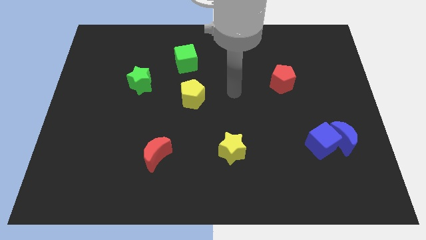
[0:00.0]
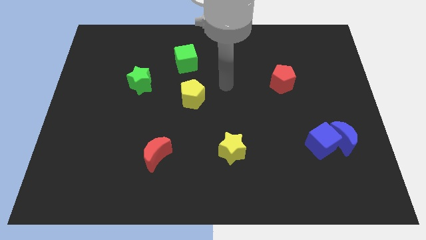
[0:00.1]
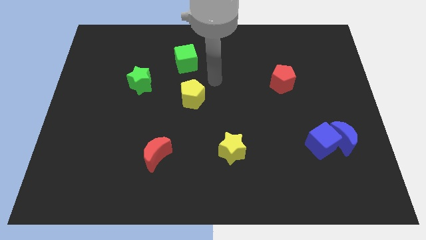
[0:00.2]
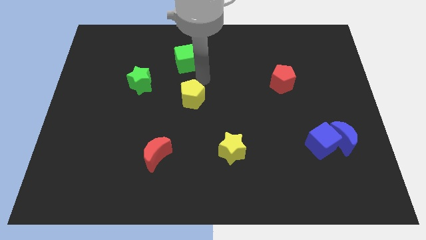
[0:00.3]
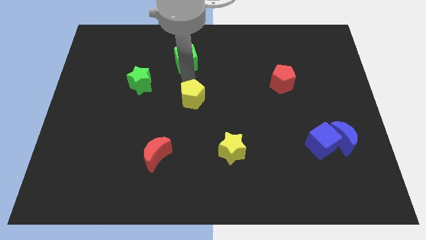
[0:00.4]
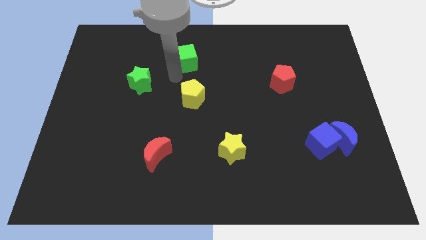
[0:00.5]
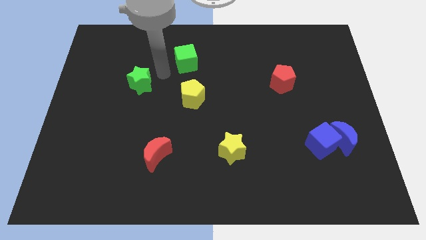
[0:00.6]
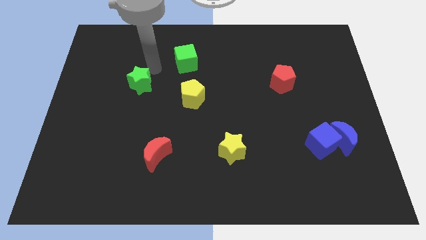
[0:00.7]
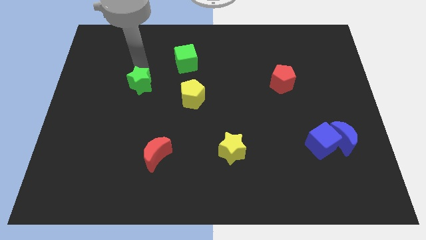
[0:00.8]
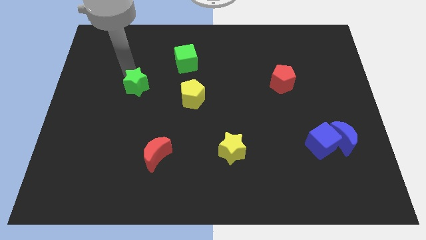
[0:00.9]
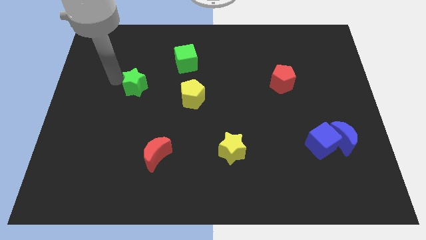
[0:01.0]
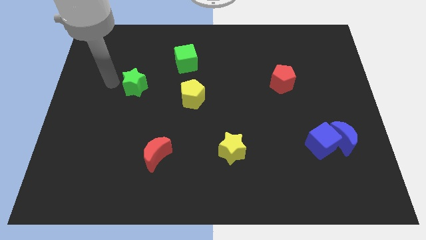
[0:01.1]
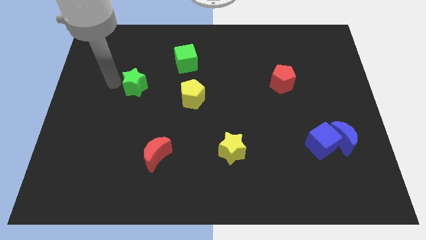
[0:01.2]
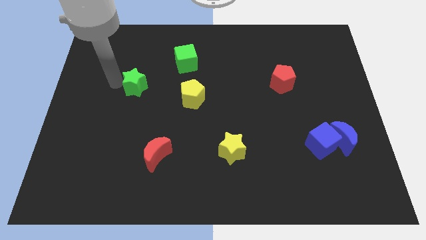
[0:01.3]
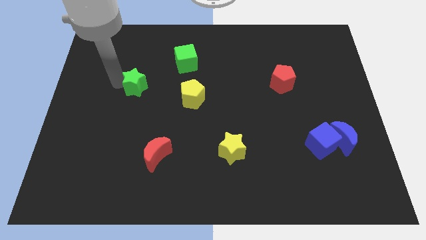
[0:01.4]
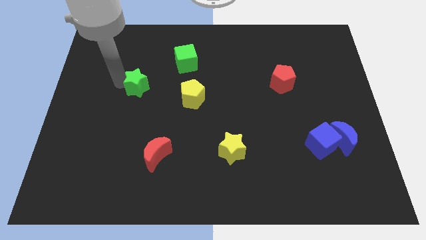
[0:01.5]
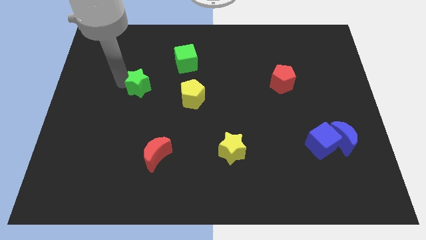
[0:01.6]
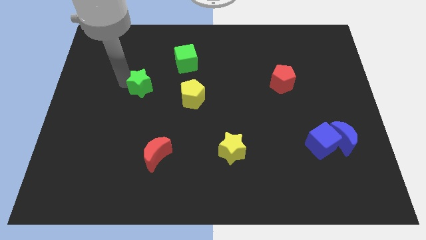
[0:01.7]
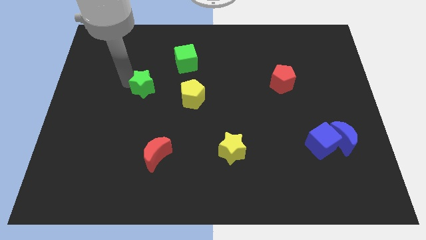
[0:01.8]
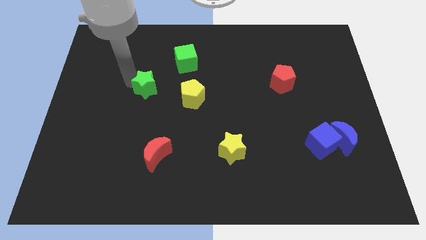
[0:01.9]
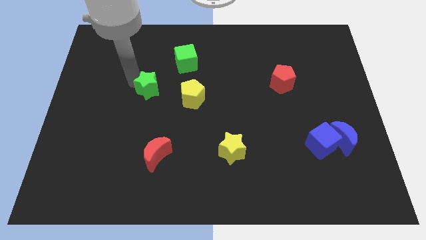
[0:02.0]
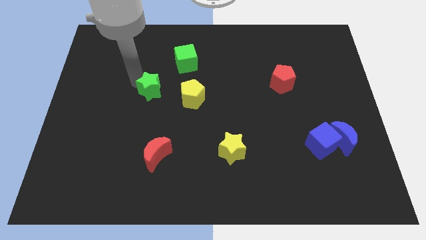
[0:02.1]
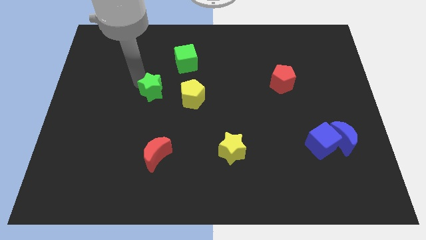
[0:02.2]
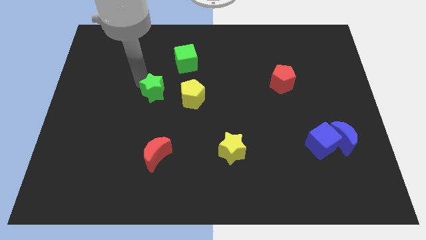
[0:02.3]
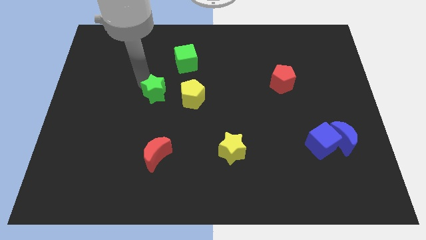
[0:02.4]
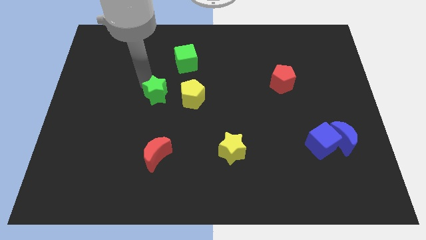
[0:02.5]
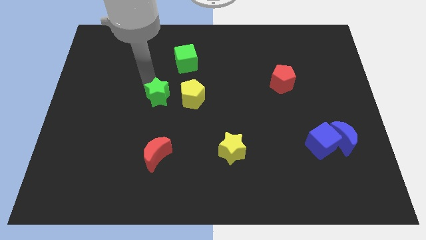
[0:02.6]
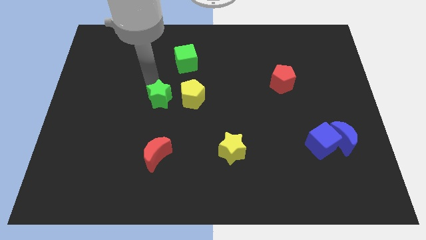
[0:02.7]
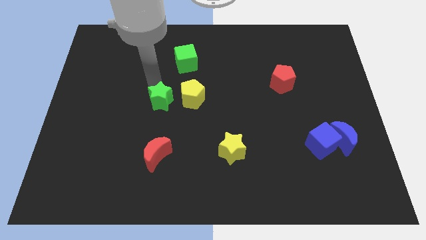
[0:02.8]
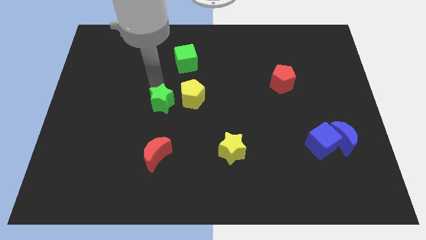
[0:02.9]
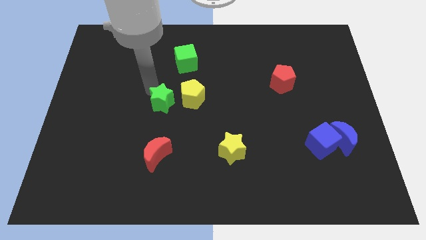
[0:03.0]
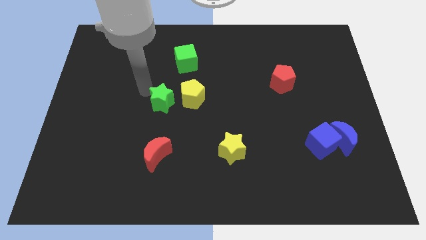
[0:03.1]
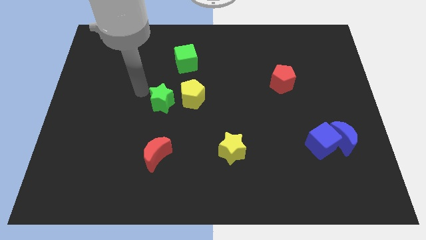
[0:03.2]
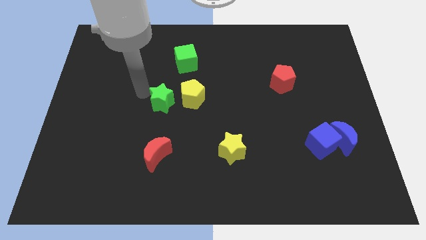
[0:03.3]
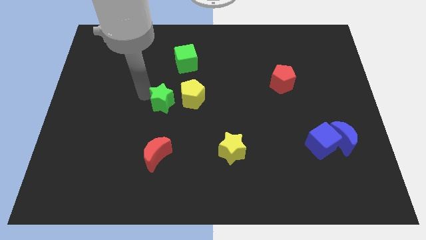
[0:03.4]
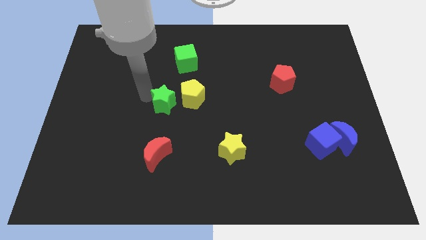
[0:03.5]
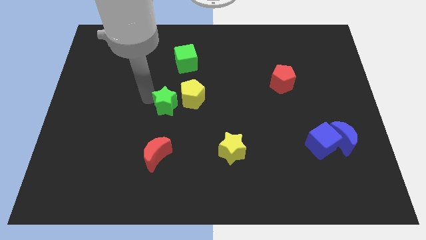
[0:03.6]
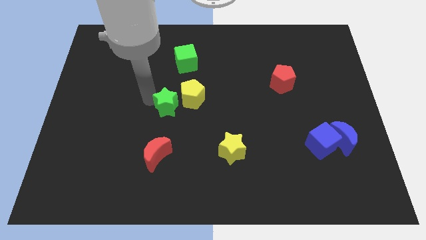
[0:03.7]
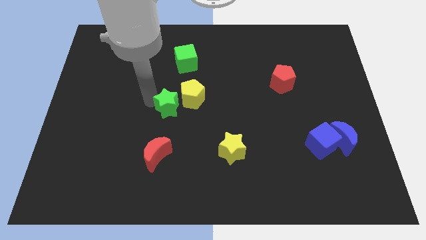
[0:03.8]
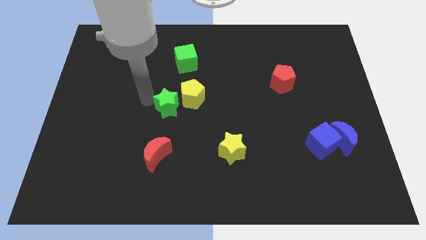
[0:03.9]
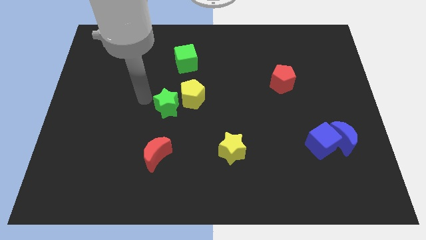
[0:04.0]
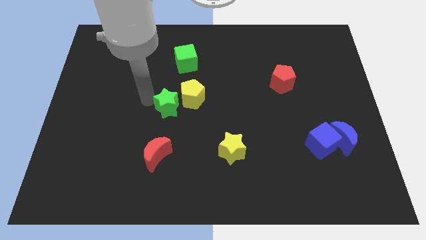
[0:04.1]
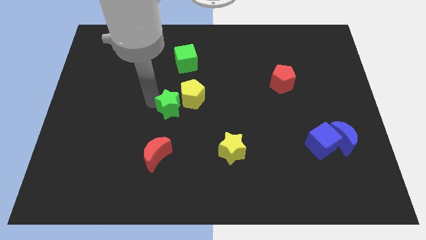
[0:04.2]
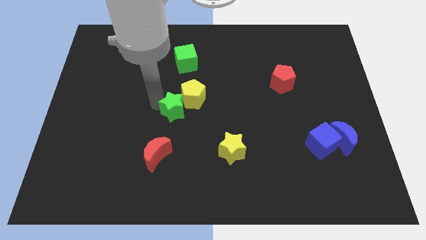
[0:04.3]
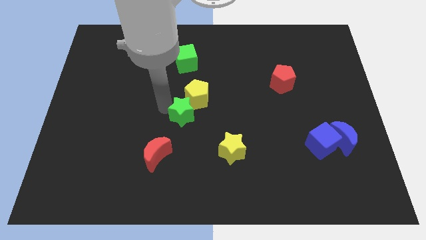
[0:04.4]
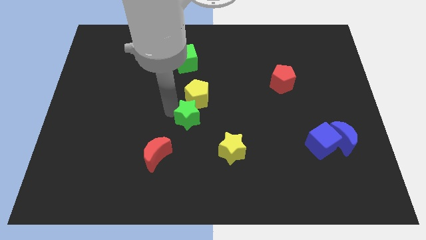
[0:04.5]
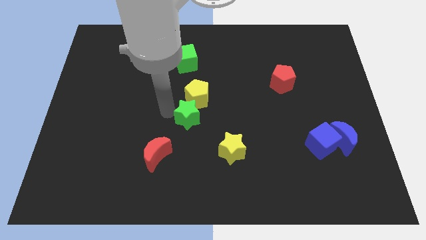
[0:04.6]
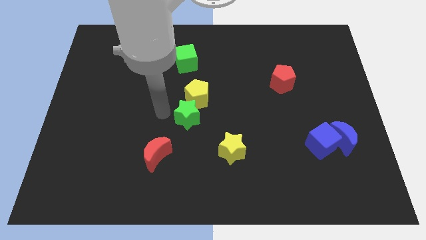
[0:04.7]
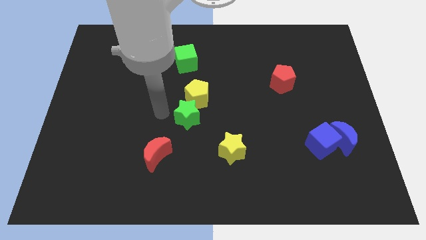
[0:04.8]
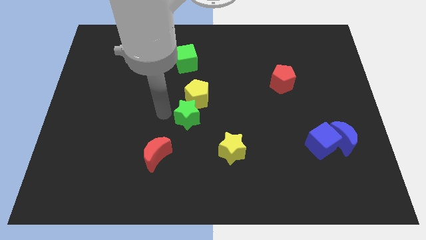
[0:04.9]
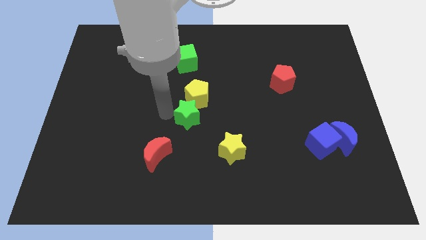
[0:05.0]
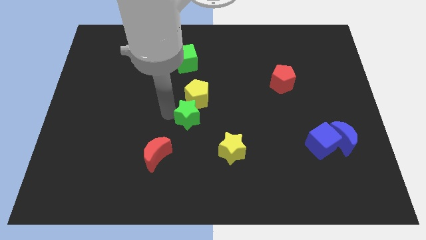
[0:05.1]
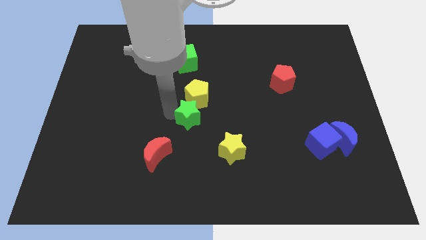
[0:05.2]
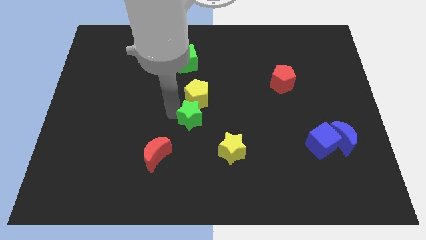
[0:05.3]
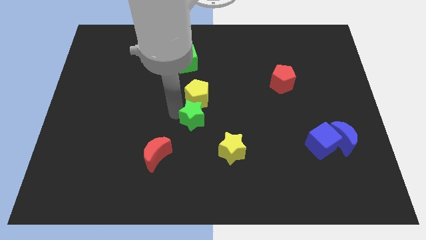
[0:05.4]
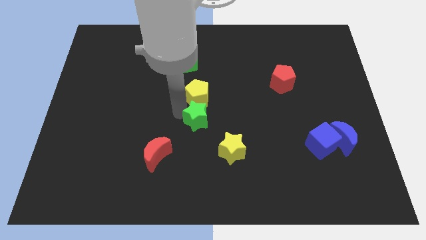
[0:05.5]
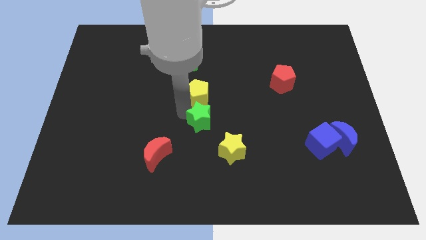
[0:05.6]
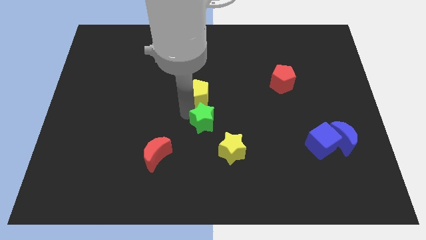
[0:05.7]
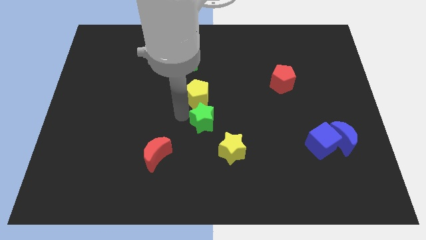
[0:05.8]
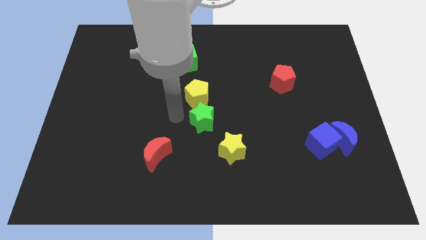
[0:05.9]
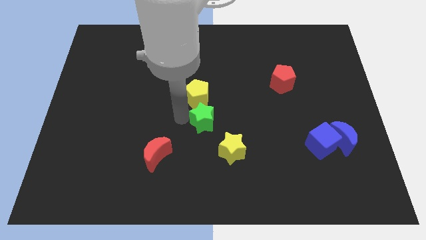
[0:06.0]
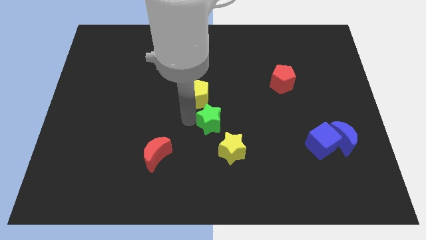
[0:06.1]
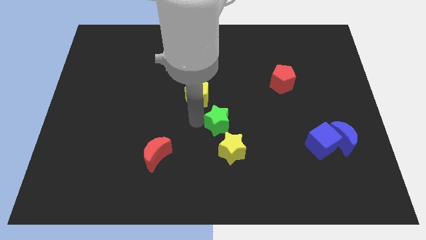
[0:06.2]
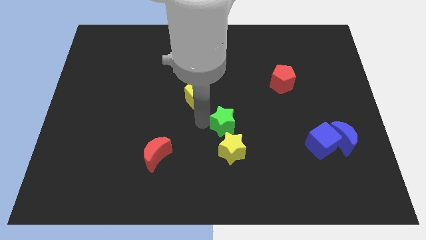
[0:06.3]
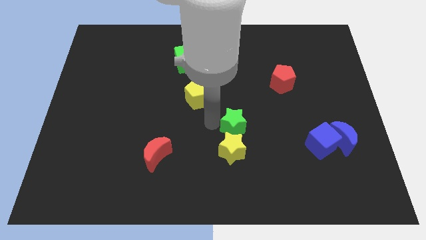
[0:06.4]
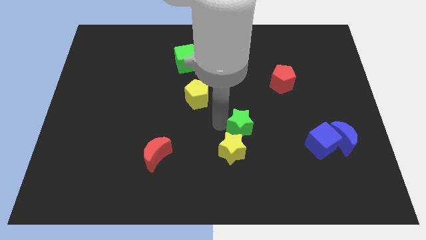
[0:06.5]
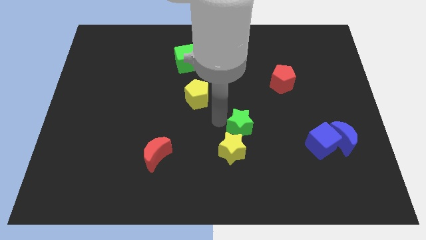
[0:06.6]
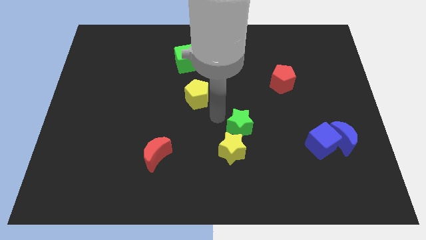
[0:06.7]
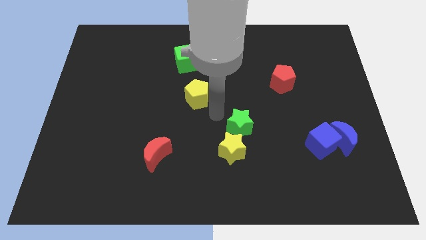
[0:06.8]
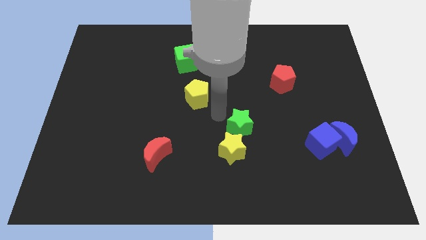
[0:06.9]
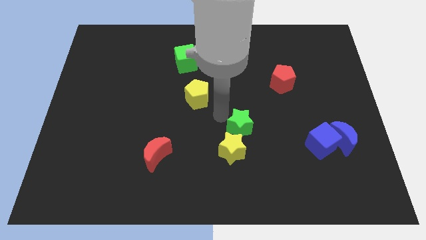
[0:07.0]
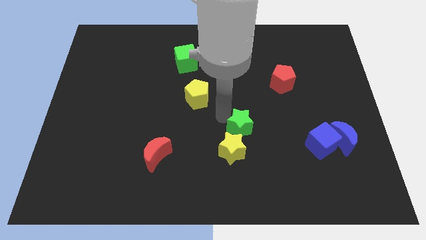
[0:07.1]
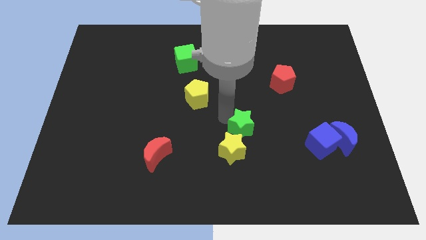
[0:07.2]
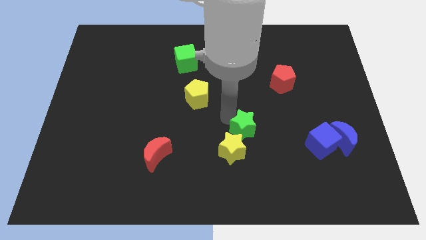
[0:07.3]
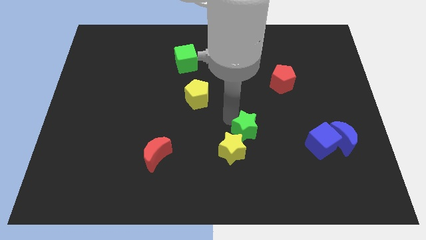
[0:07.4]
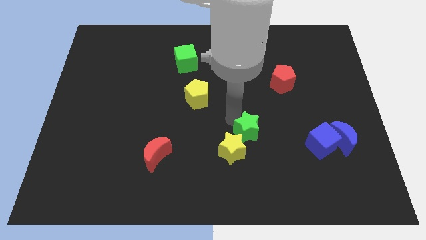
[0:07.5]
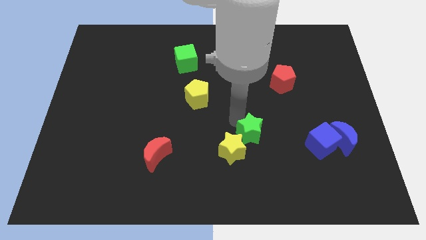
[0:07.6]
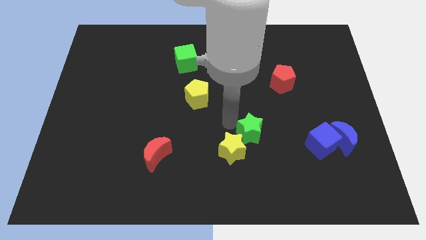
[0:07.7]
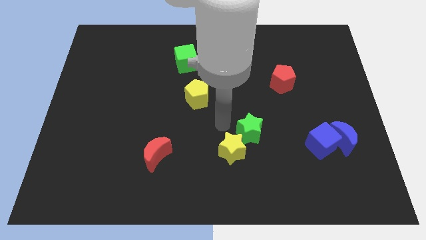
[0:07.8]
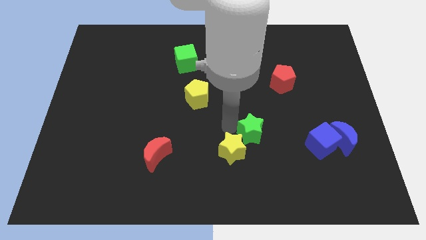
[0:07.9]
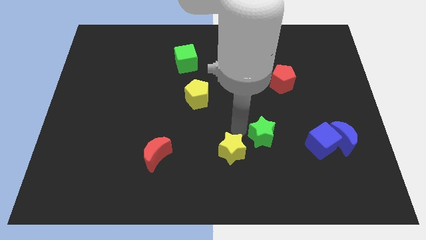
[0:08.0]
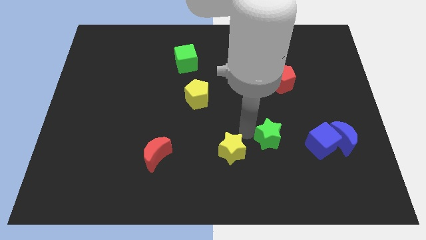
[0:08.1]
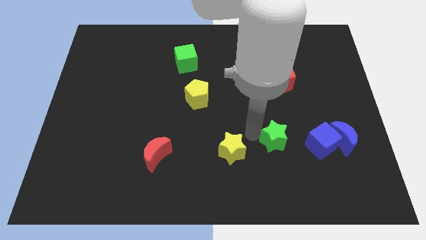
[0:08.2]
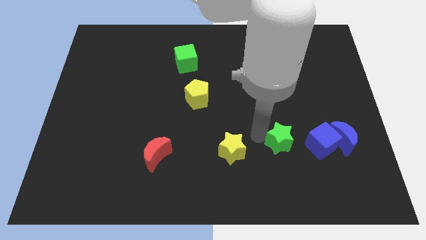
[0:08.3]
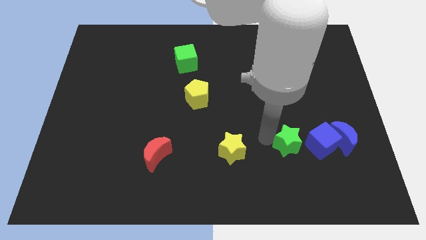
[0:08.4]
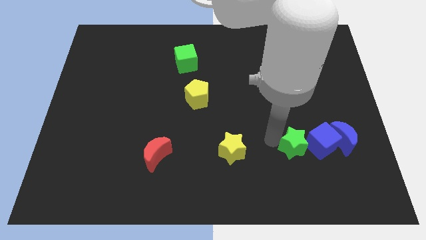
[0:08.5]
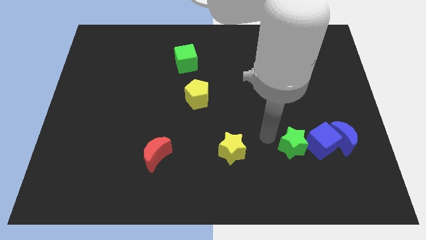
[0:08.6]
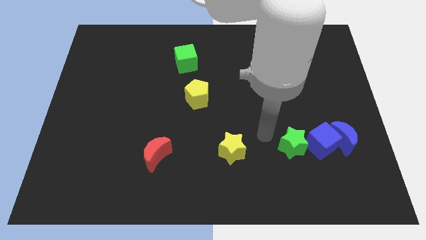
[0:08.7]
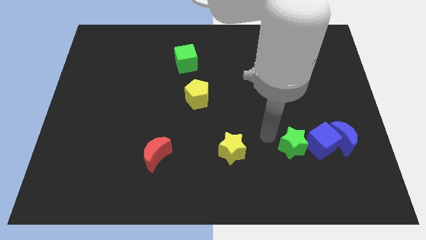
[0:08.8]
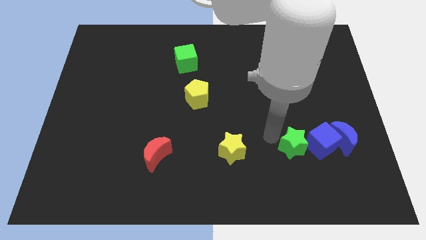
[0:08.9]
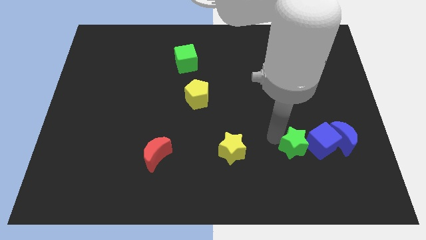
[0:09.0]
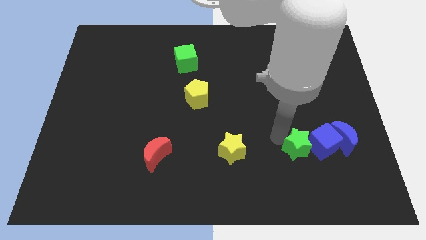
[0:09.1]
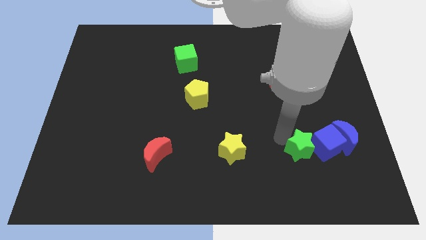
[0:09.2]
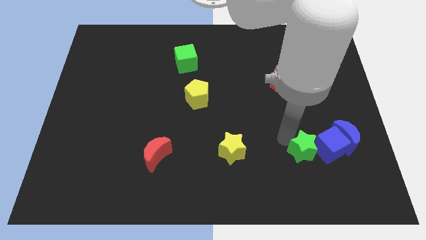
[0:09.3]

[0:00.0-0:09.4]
put the green star to the bottom left side of the blue moon
